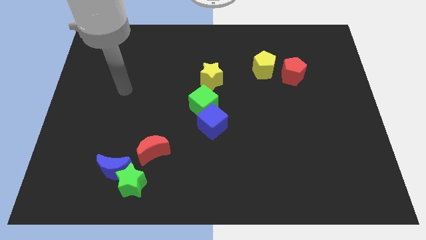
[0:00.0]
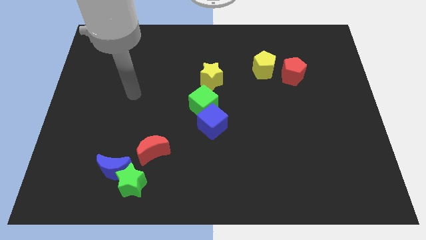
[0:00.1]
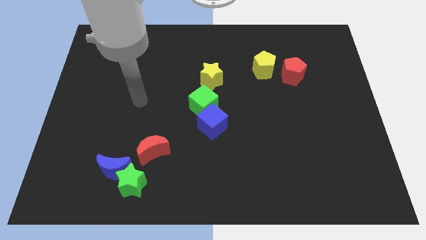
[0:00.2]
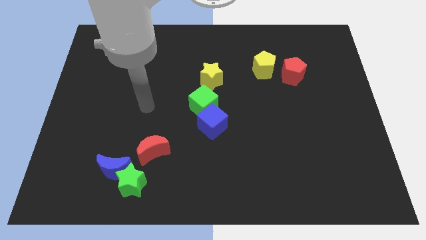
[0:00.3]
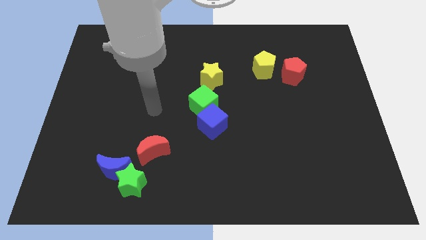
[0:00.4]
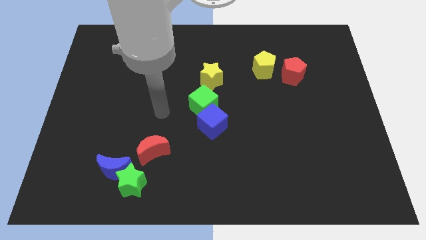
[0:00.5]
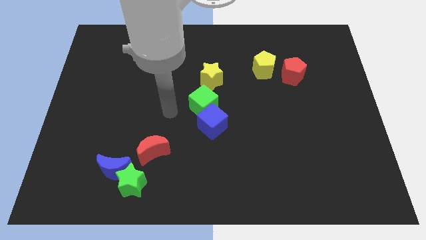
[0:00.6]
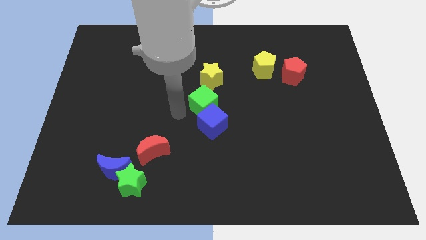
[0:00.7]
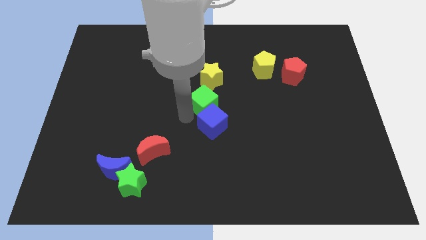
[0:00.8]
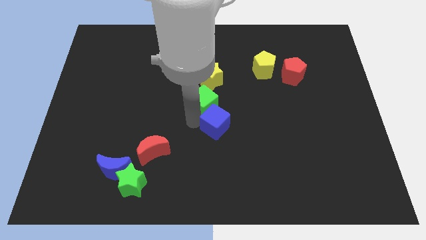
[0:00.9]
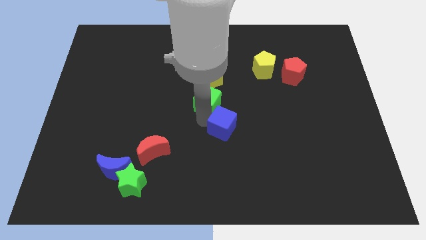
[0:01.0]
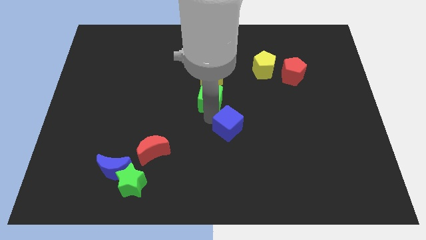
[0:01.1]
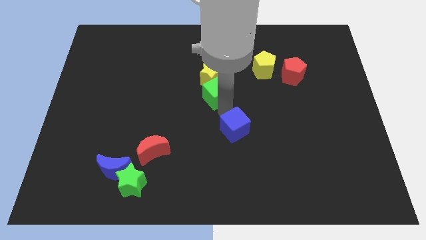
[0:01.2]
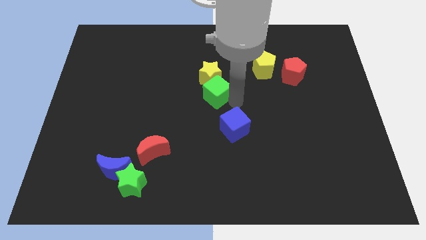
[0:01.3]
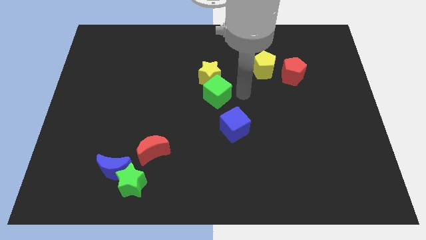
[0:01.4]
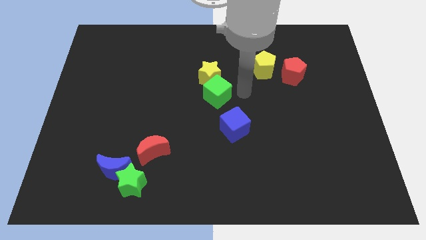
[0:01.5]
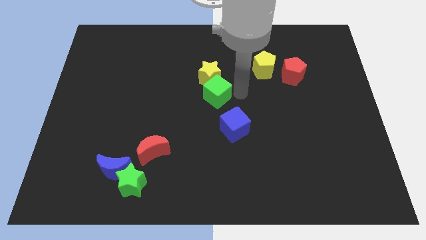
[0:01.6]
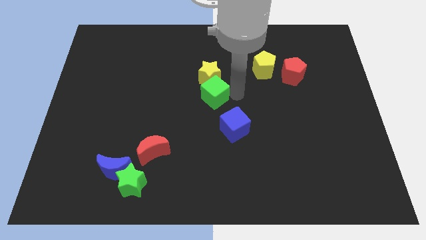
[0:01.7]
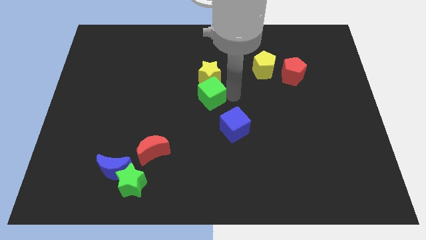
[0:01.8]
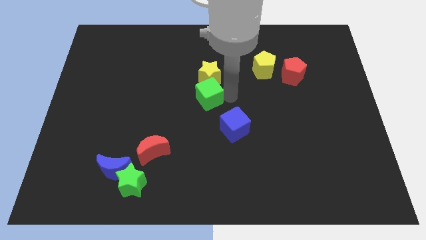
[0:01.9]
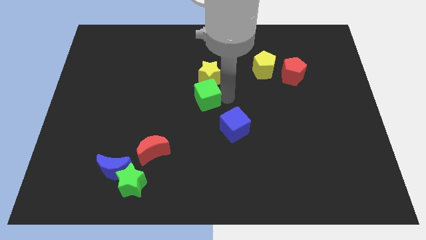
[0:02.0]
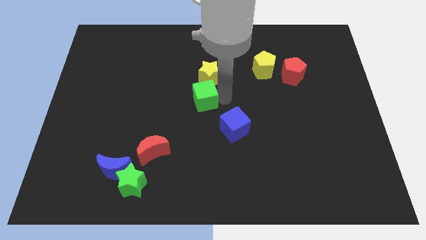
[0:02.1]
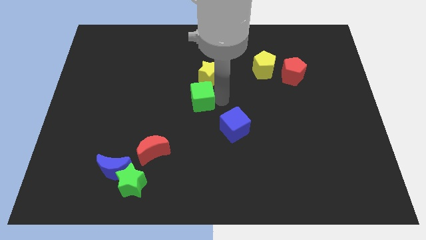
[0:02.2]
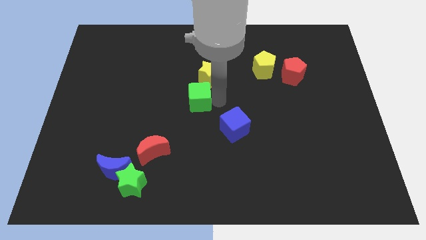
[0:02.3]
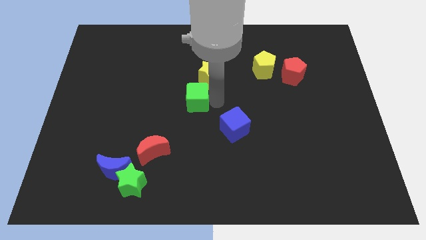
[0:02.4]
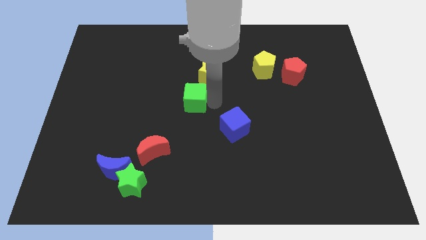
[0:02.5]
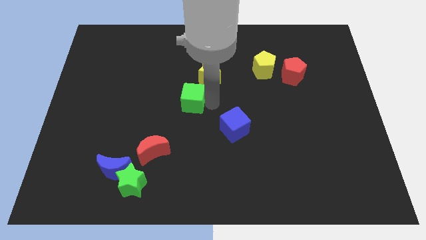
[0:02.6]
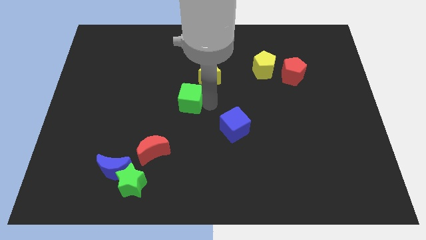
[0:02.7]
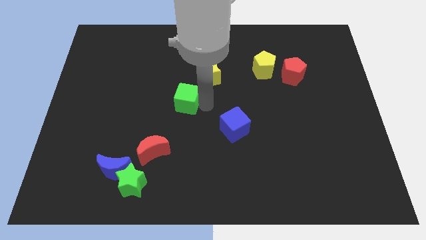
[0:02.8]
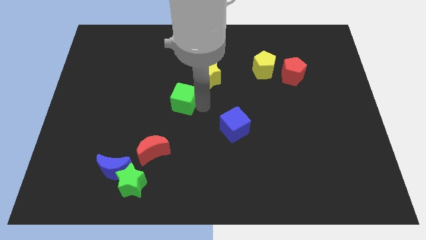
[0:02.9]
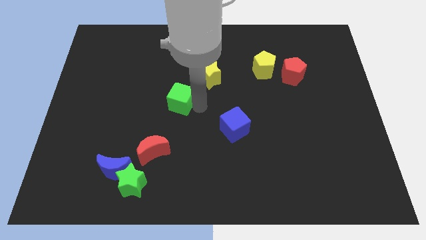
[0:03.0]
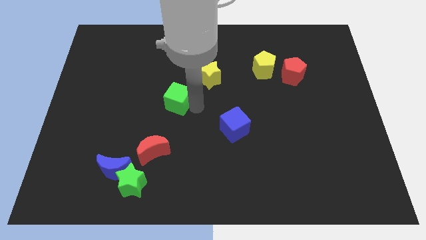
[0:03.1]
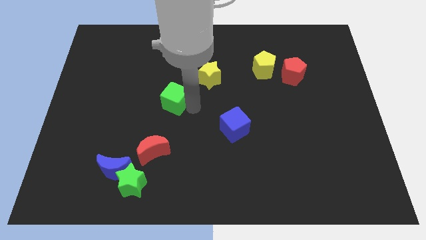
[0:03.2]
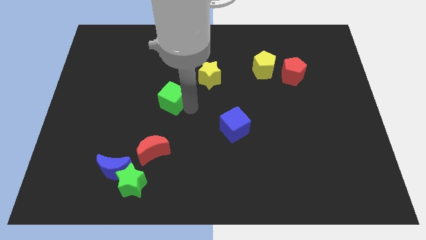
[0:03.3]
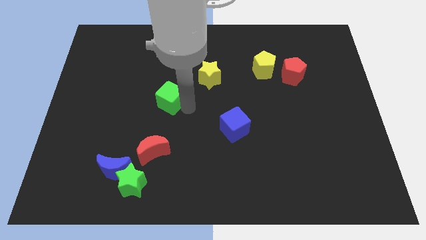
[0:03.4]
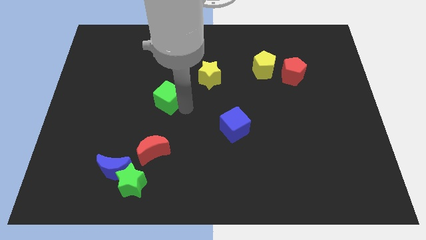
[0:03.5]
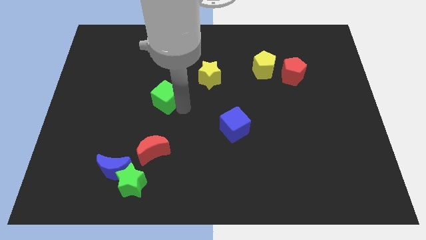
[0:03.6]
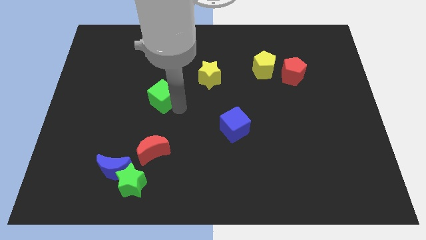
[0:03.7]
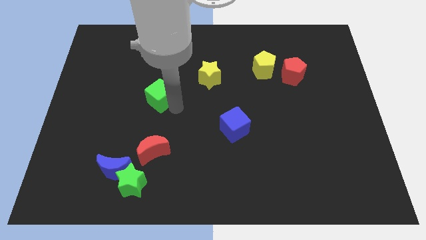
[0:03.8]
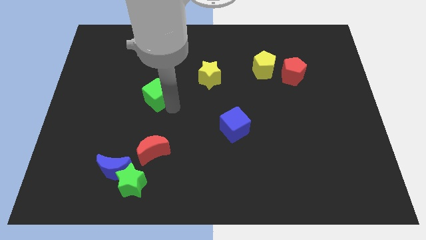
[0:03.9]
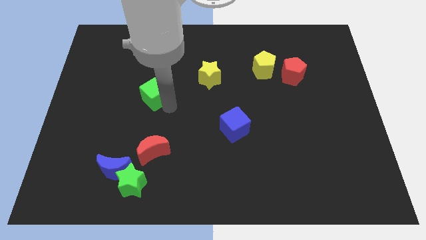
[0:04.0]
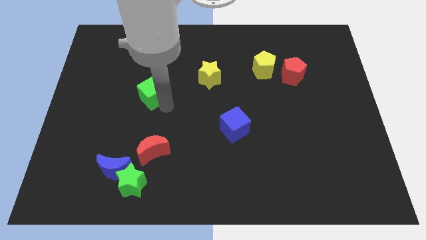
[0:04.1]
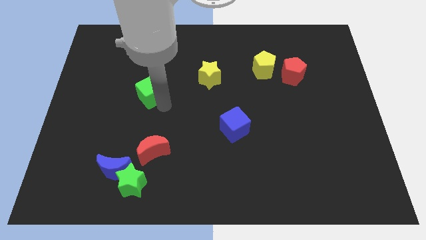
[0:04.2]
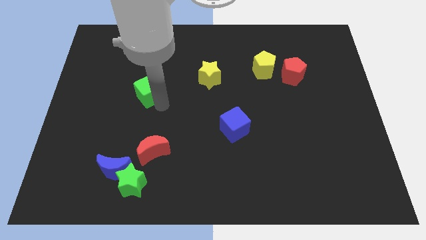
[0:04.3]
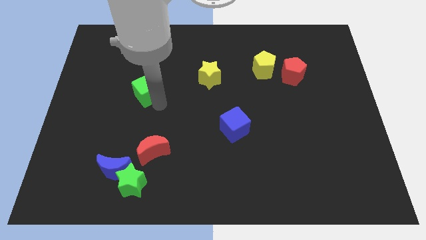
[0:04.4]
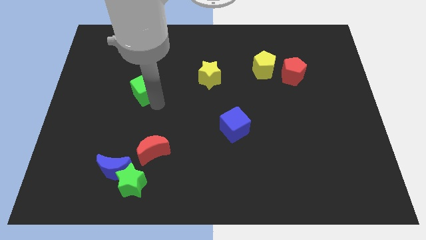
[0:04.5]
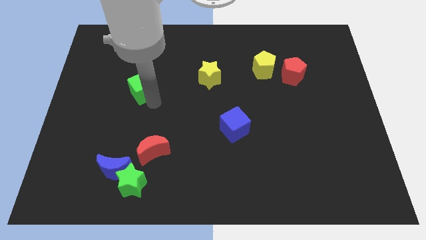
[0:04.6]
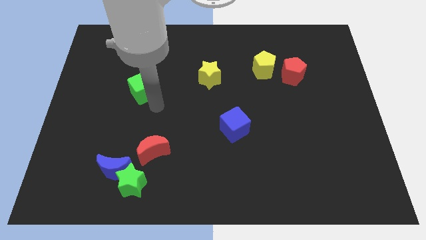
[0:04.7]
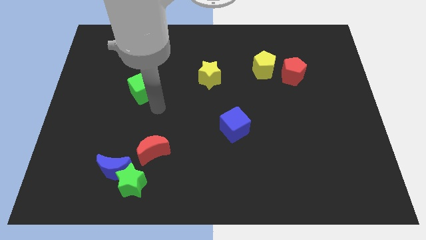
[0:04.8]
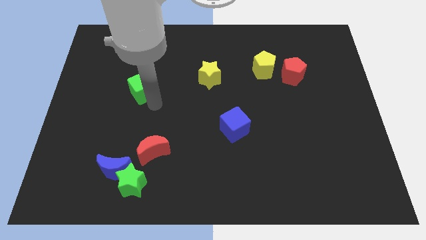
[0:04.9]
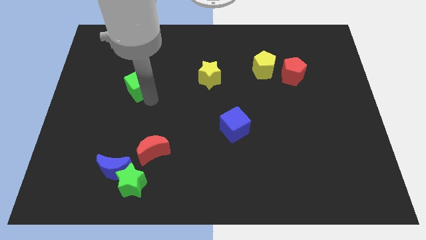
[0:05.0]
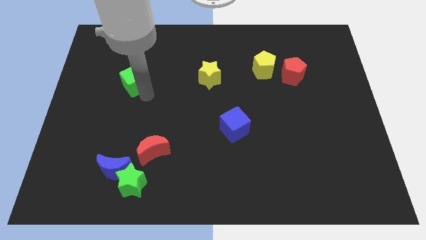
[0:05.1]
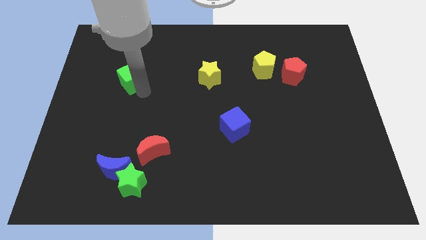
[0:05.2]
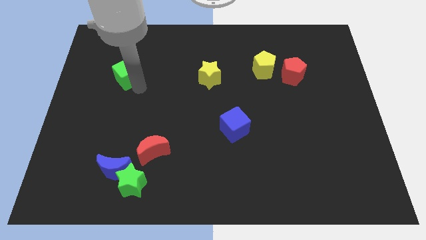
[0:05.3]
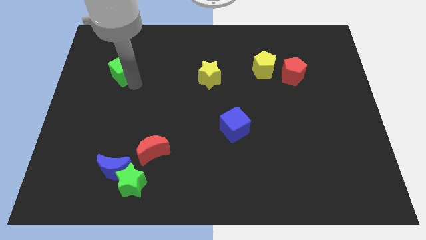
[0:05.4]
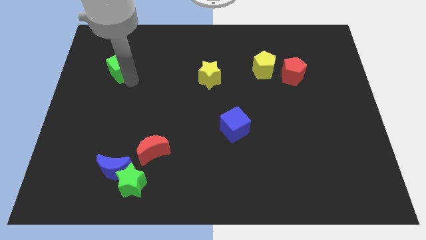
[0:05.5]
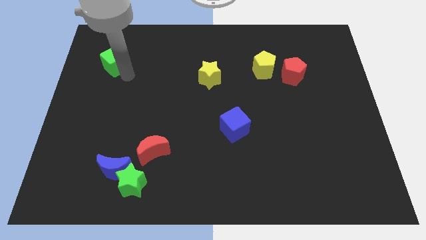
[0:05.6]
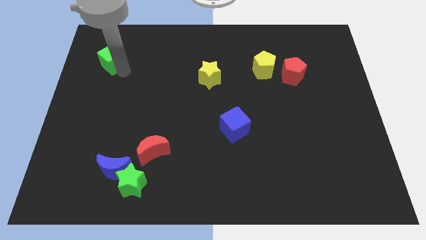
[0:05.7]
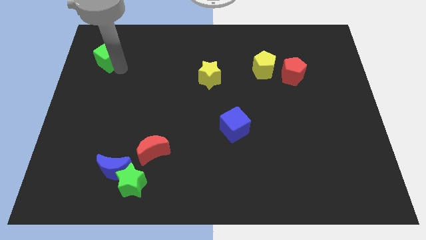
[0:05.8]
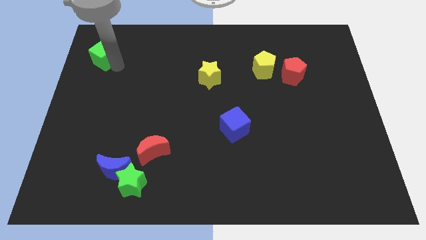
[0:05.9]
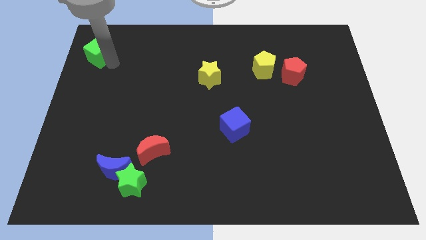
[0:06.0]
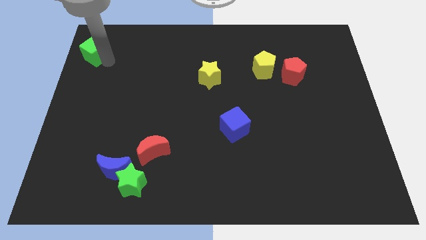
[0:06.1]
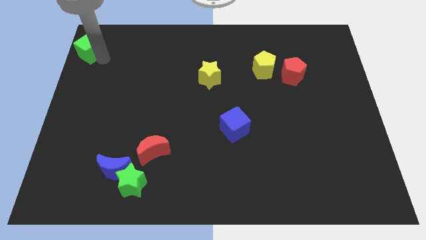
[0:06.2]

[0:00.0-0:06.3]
put the green cube to the upper left corner

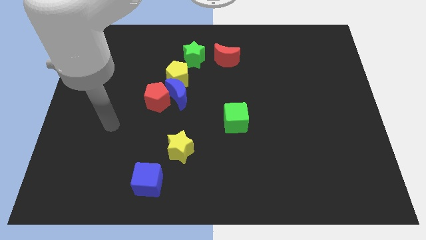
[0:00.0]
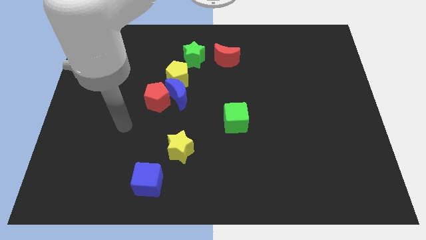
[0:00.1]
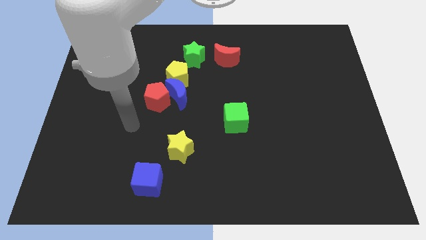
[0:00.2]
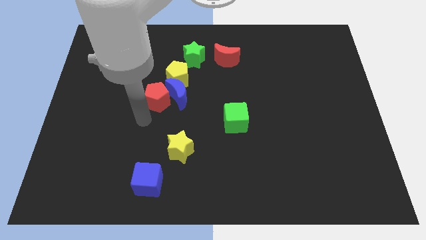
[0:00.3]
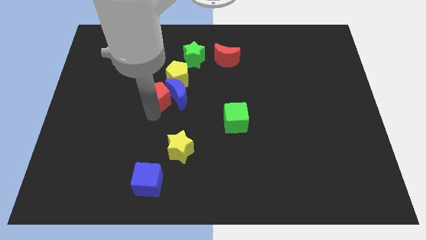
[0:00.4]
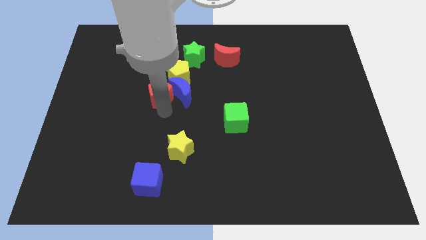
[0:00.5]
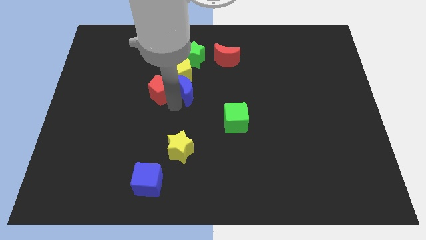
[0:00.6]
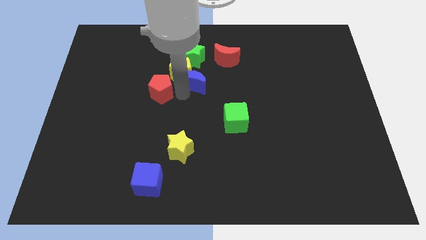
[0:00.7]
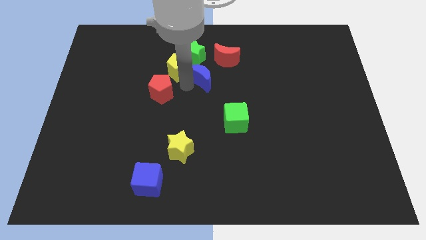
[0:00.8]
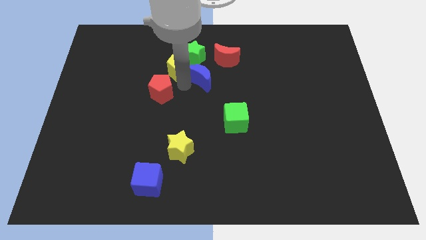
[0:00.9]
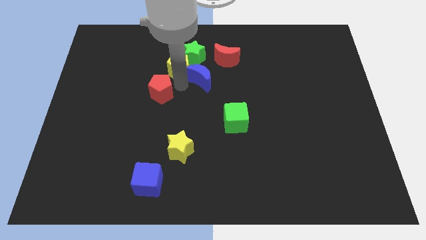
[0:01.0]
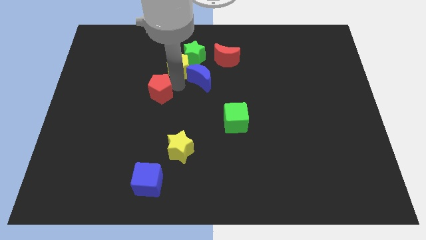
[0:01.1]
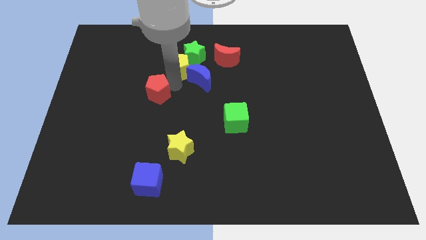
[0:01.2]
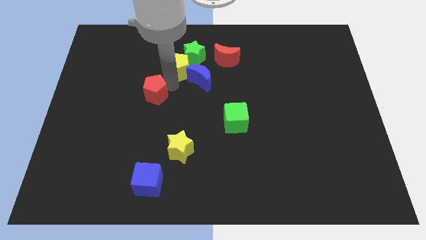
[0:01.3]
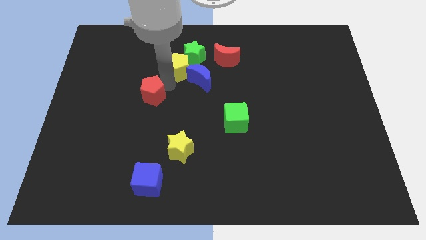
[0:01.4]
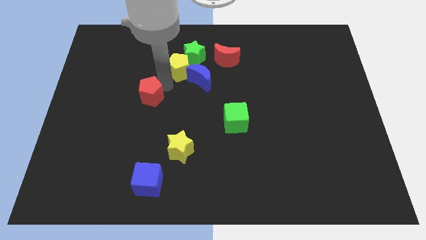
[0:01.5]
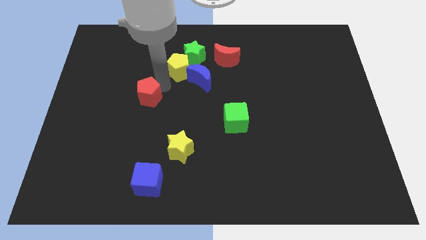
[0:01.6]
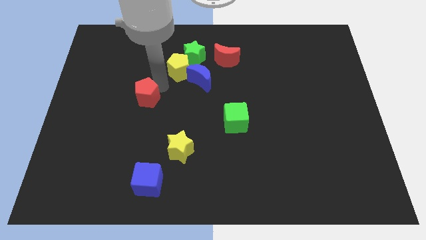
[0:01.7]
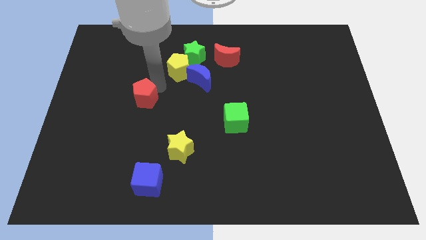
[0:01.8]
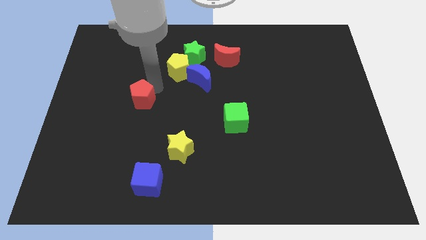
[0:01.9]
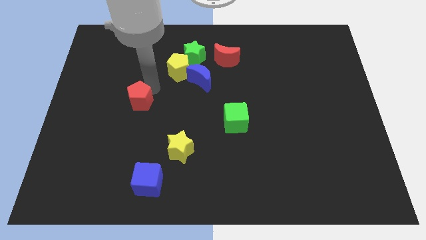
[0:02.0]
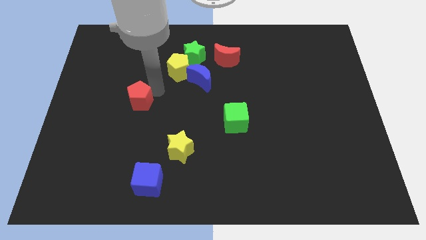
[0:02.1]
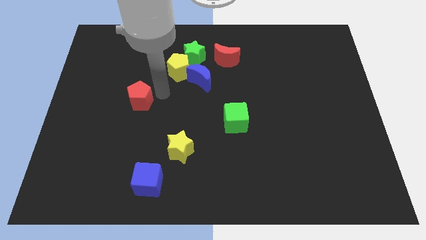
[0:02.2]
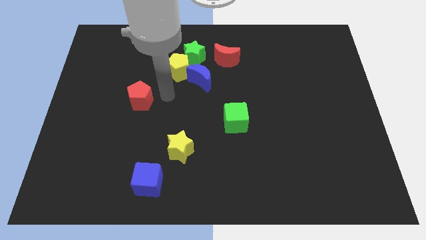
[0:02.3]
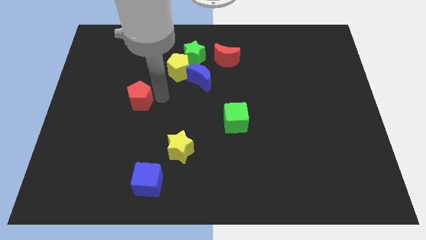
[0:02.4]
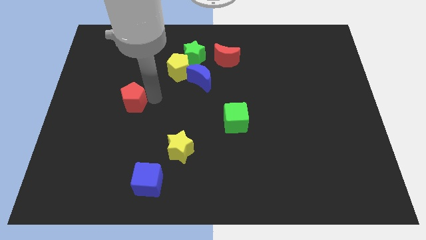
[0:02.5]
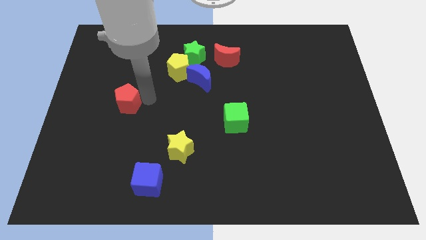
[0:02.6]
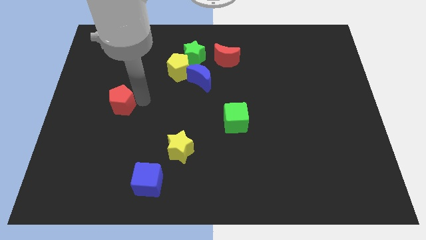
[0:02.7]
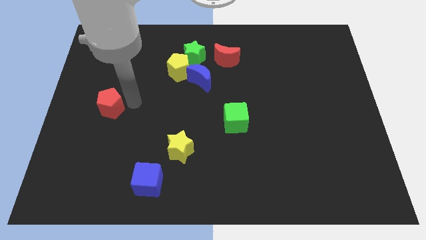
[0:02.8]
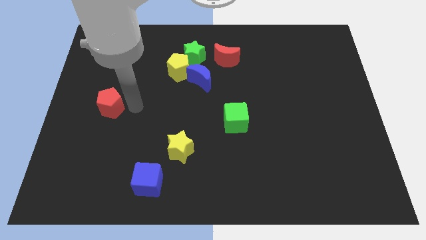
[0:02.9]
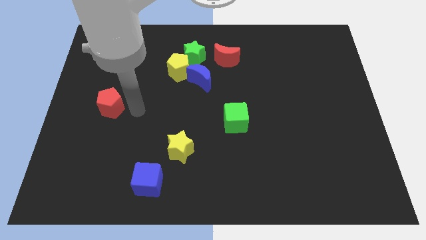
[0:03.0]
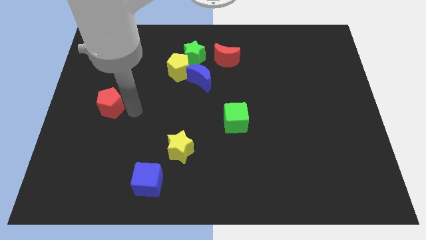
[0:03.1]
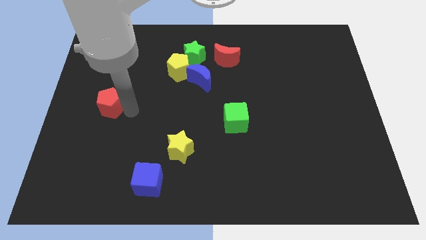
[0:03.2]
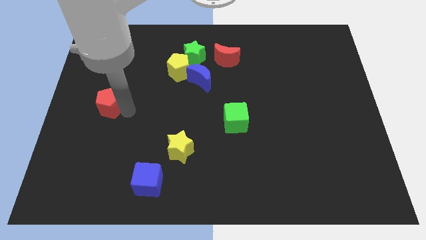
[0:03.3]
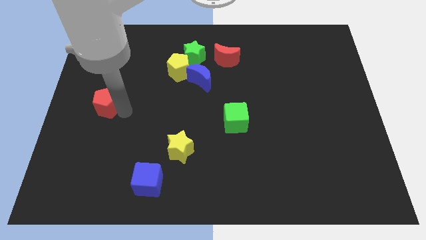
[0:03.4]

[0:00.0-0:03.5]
move the red pentagon to the left side of the board
